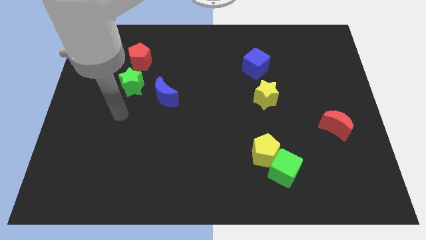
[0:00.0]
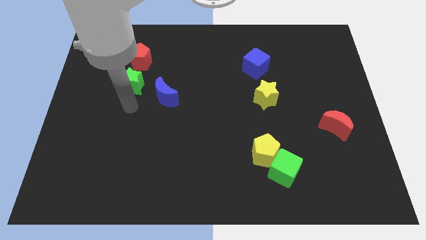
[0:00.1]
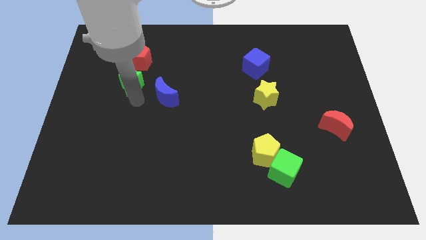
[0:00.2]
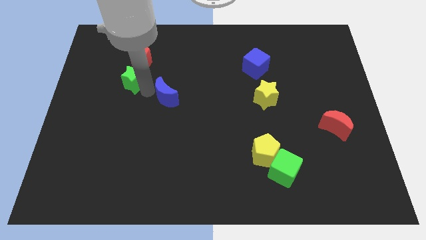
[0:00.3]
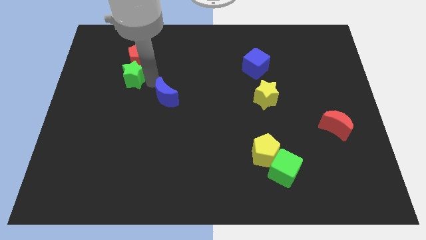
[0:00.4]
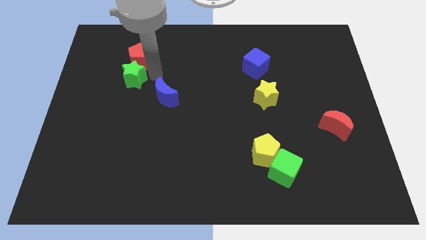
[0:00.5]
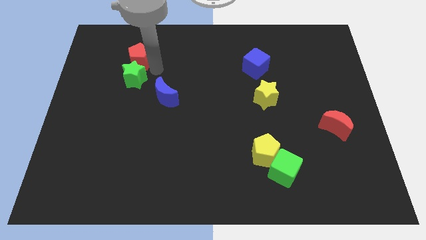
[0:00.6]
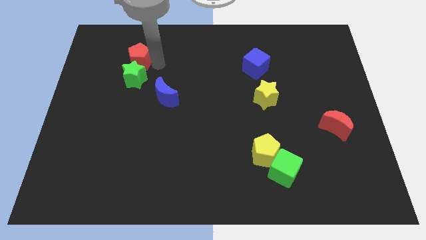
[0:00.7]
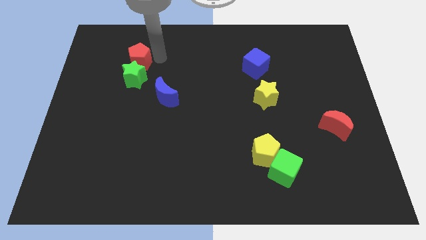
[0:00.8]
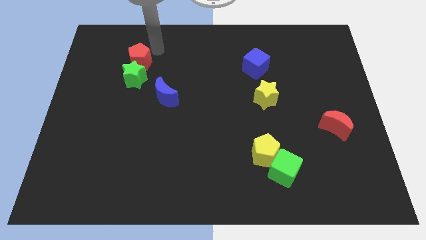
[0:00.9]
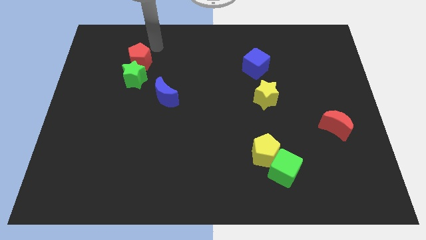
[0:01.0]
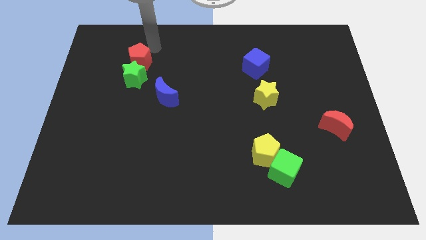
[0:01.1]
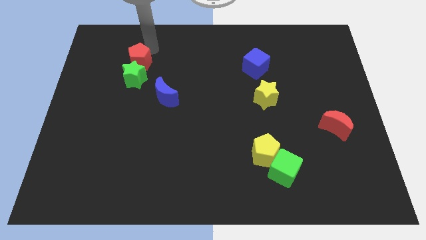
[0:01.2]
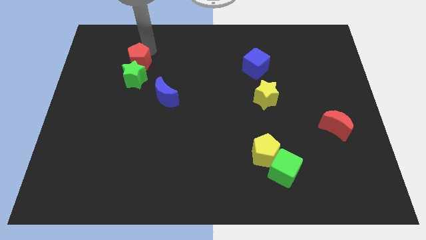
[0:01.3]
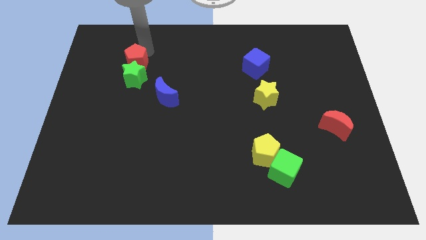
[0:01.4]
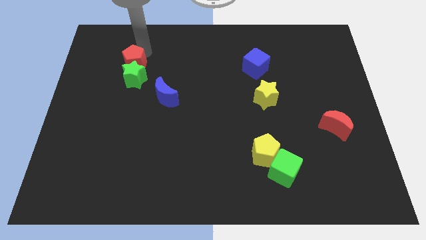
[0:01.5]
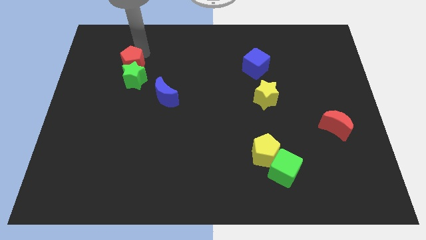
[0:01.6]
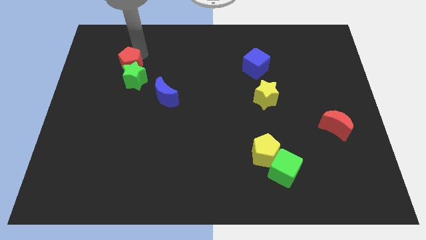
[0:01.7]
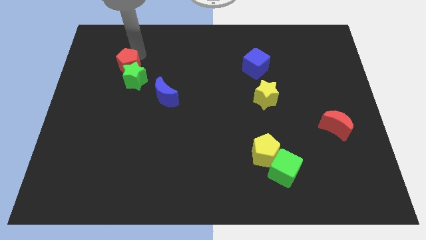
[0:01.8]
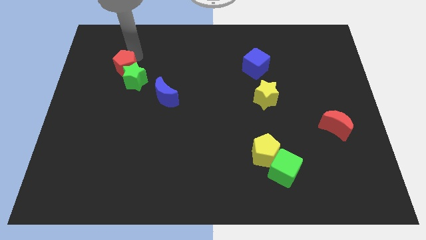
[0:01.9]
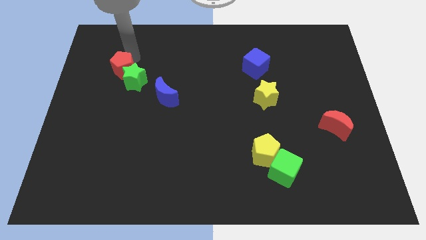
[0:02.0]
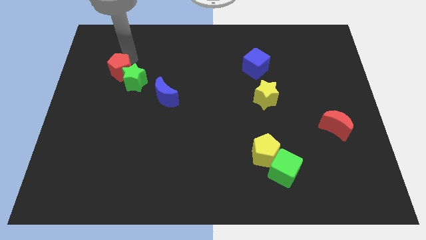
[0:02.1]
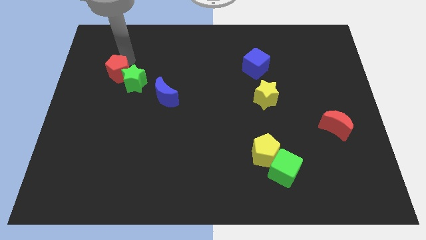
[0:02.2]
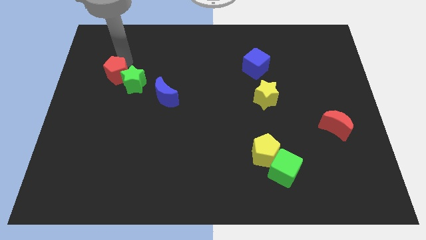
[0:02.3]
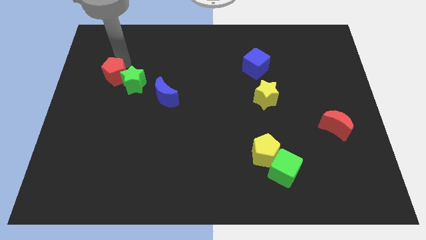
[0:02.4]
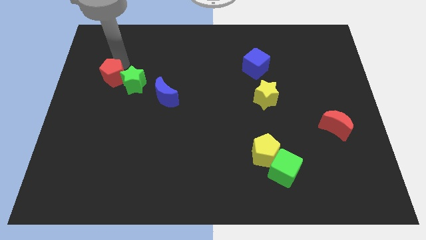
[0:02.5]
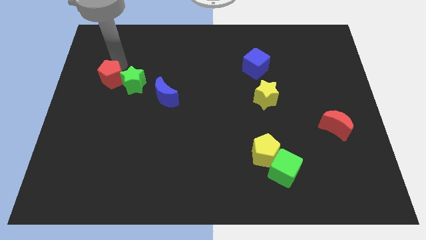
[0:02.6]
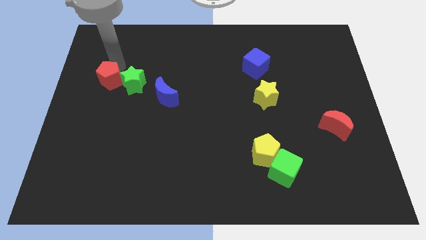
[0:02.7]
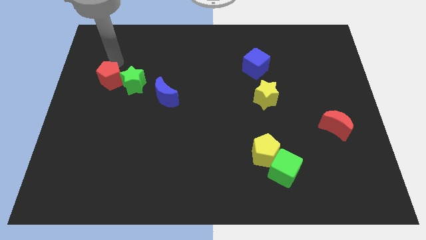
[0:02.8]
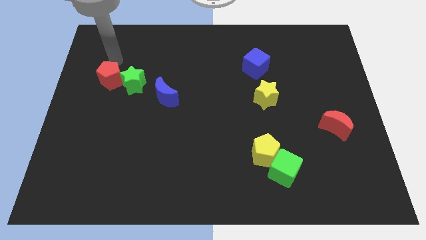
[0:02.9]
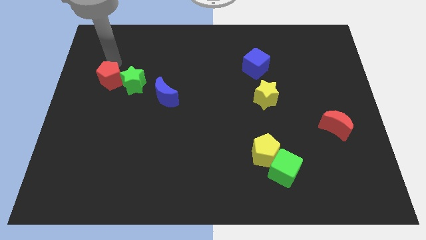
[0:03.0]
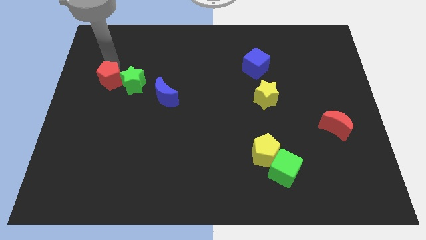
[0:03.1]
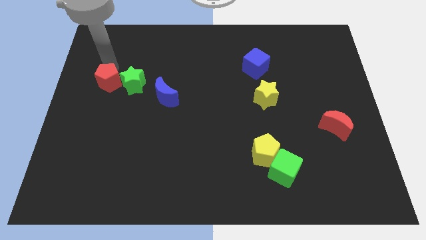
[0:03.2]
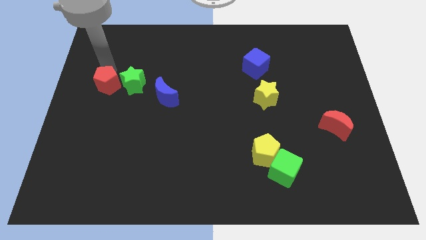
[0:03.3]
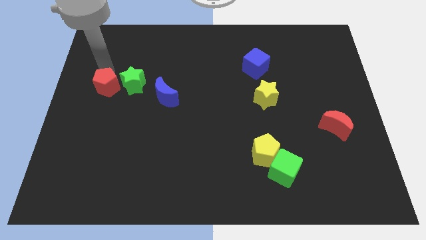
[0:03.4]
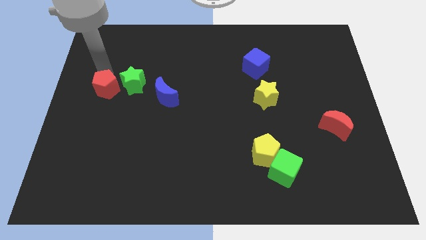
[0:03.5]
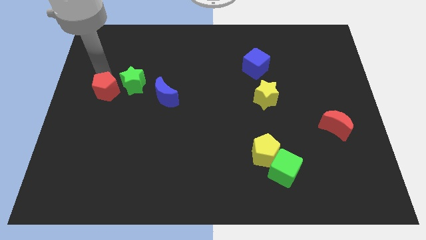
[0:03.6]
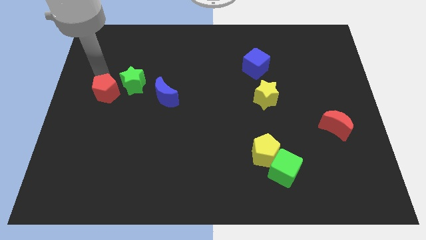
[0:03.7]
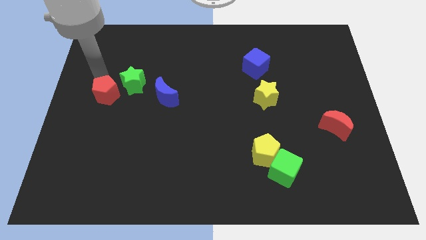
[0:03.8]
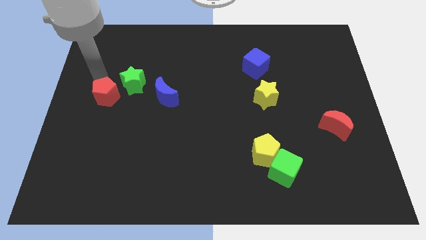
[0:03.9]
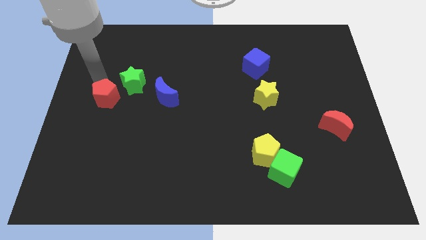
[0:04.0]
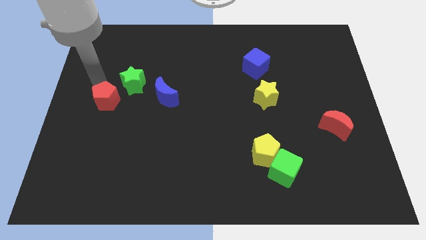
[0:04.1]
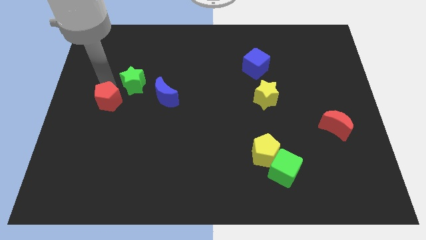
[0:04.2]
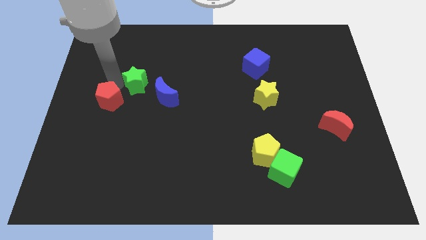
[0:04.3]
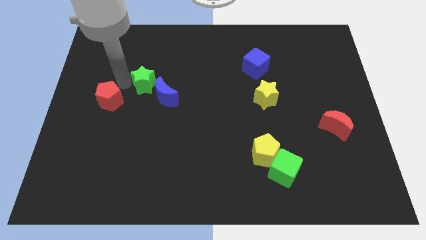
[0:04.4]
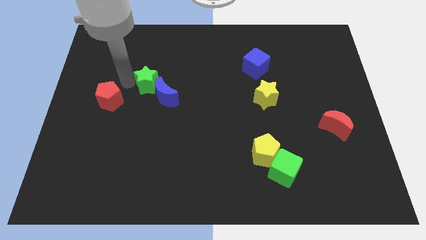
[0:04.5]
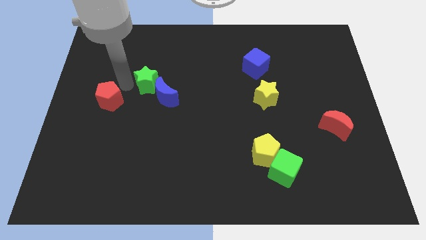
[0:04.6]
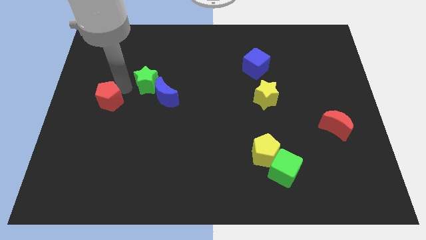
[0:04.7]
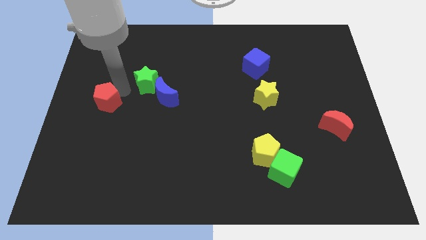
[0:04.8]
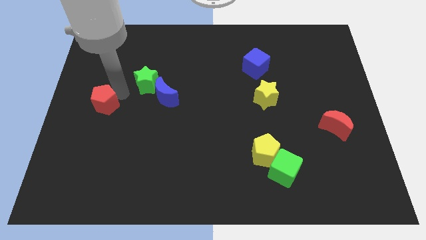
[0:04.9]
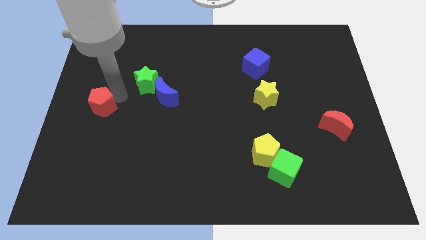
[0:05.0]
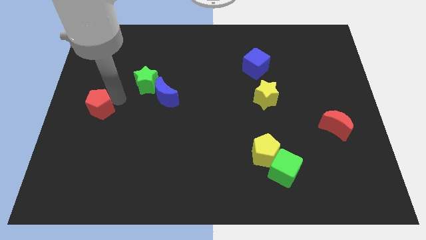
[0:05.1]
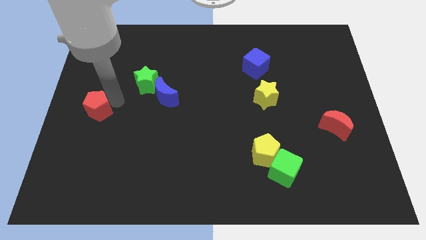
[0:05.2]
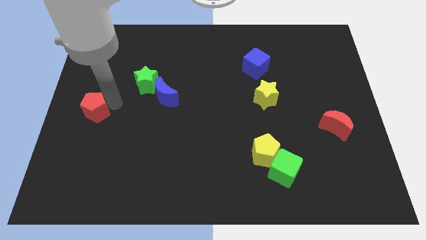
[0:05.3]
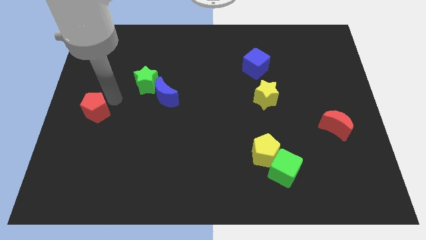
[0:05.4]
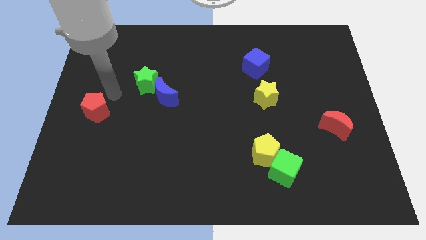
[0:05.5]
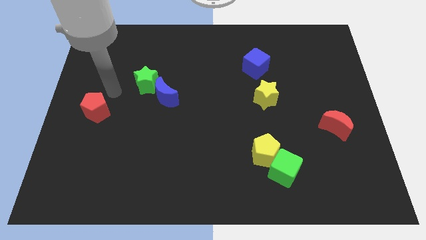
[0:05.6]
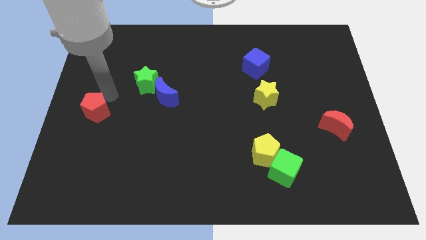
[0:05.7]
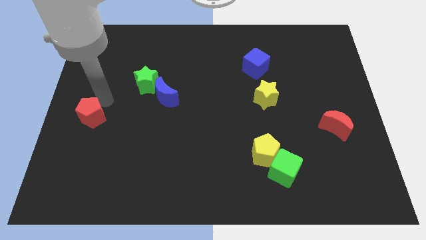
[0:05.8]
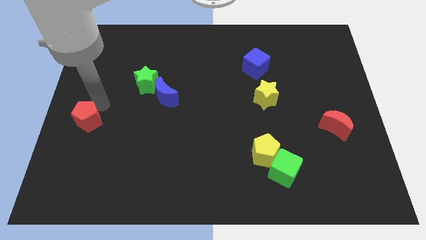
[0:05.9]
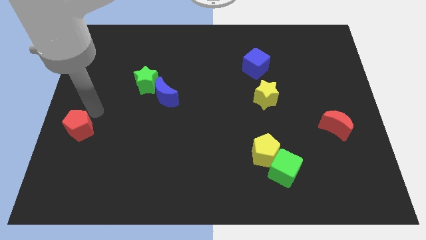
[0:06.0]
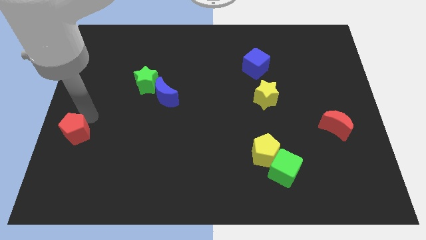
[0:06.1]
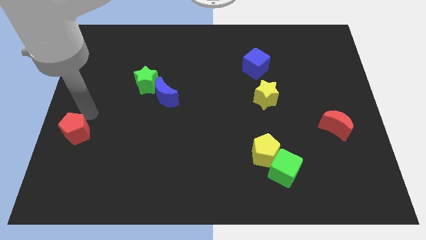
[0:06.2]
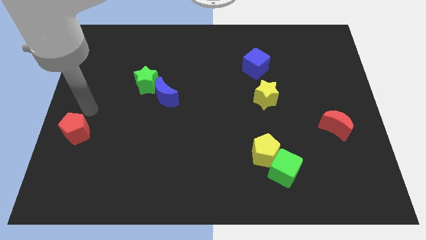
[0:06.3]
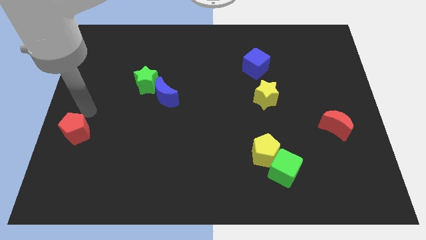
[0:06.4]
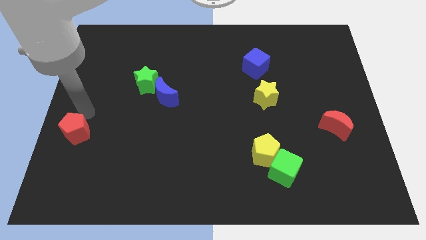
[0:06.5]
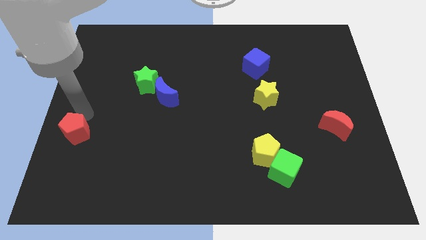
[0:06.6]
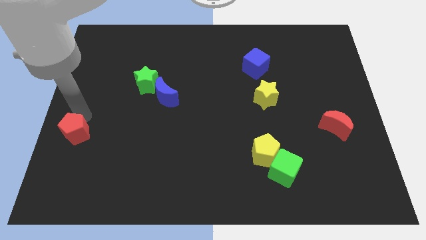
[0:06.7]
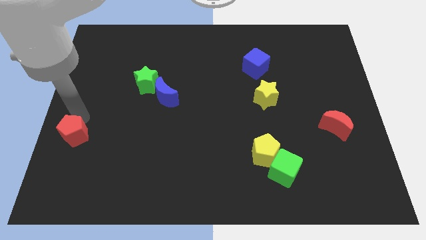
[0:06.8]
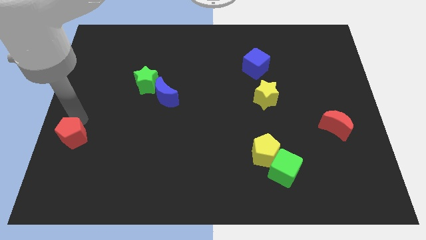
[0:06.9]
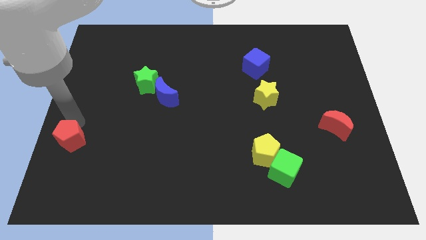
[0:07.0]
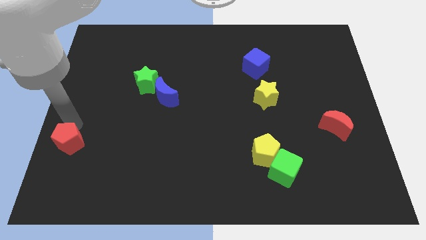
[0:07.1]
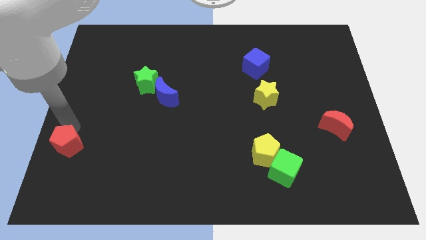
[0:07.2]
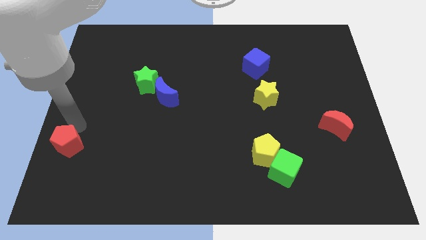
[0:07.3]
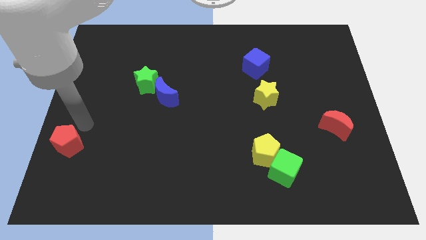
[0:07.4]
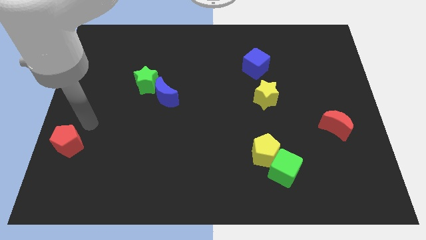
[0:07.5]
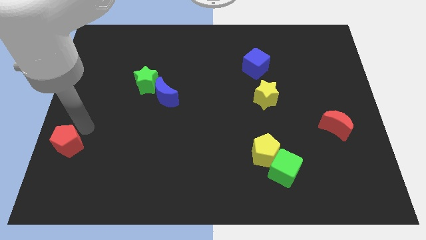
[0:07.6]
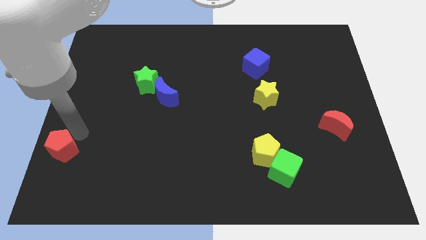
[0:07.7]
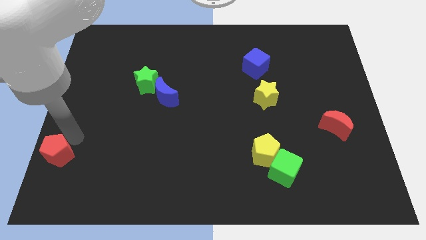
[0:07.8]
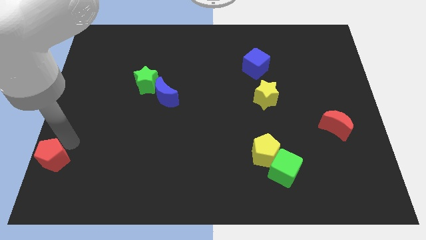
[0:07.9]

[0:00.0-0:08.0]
move the red pentagon to the bottom left of the board

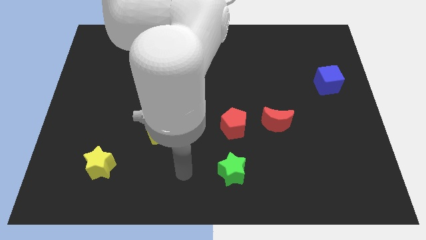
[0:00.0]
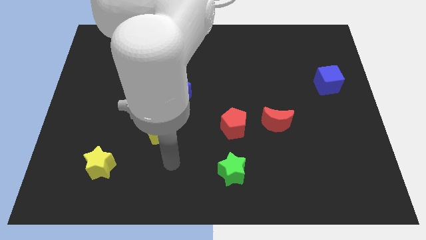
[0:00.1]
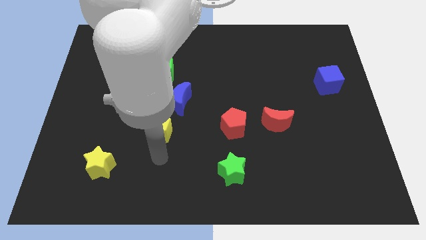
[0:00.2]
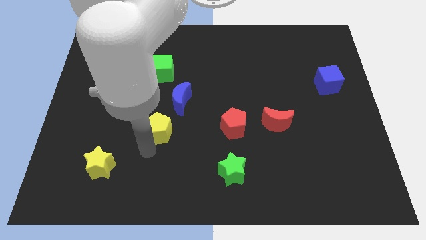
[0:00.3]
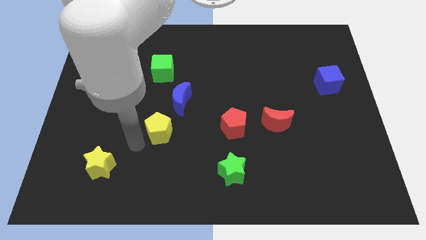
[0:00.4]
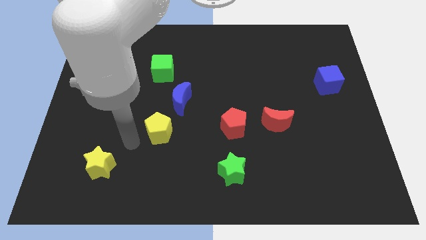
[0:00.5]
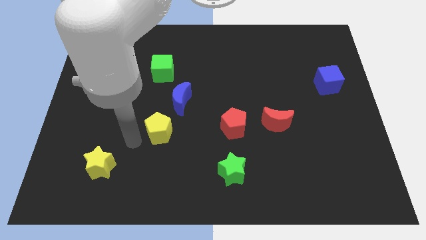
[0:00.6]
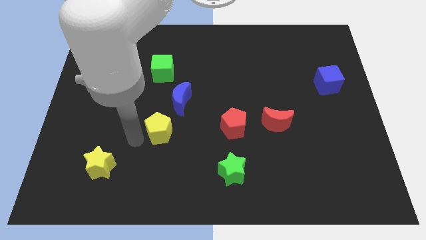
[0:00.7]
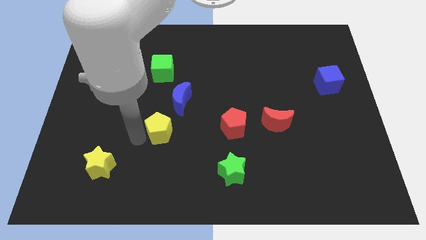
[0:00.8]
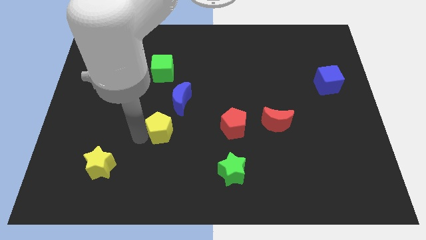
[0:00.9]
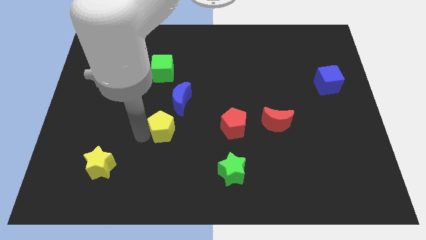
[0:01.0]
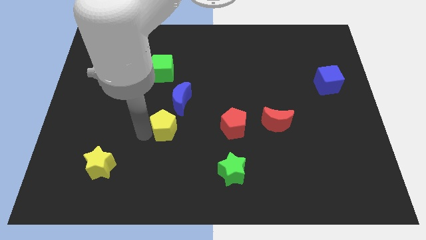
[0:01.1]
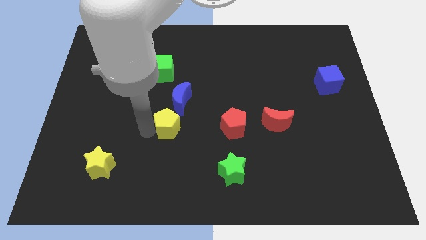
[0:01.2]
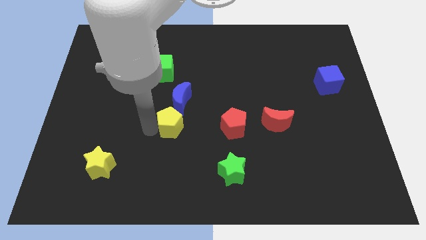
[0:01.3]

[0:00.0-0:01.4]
put the yellow pentagon to the middle of the board
